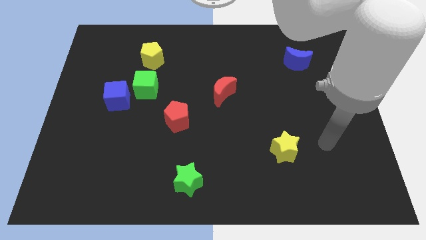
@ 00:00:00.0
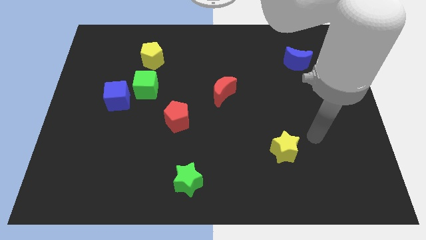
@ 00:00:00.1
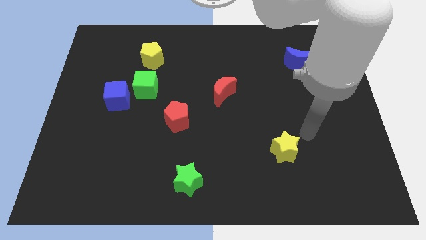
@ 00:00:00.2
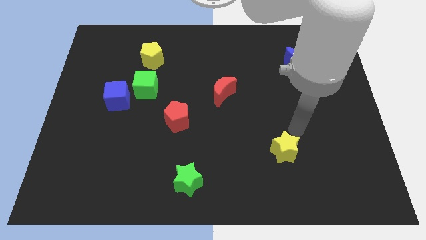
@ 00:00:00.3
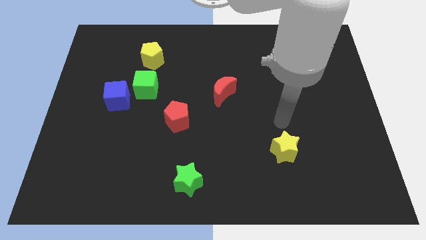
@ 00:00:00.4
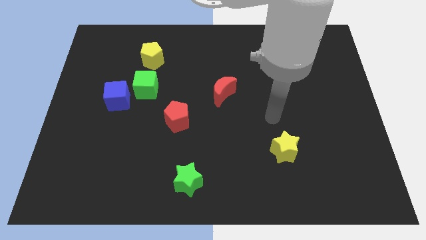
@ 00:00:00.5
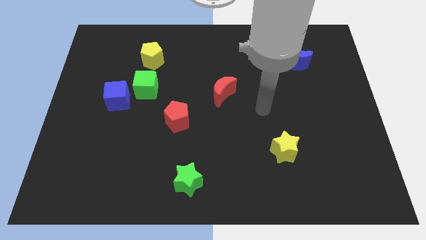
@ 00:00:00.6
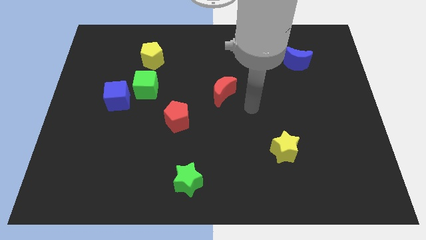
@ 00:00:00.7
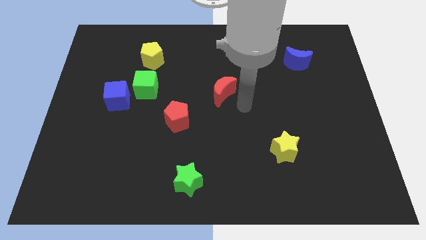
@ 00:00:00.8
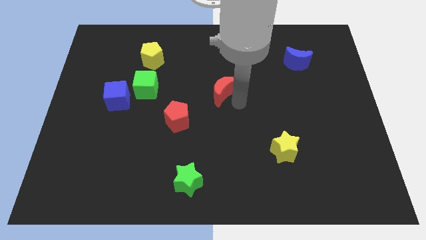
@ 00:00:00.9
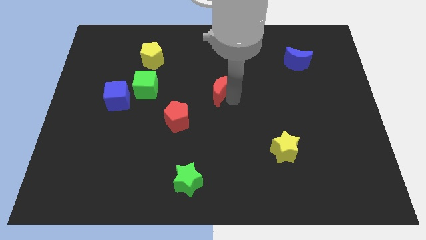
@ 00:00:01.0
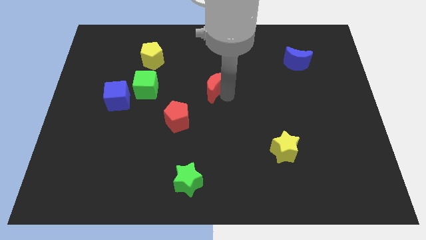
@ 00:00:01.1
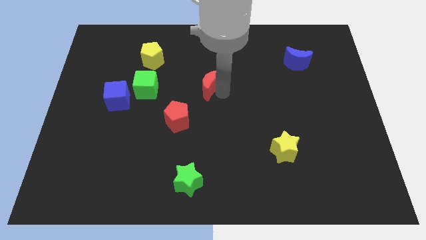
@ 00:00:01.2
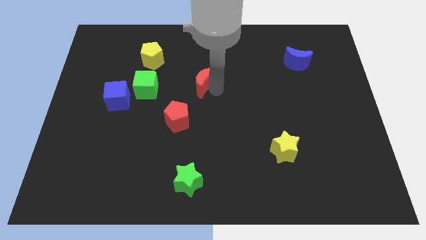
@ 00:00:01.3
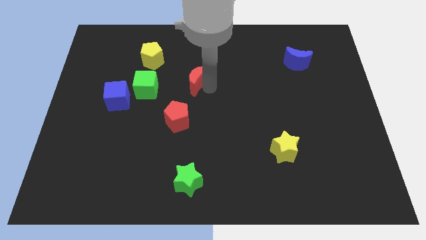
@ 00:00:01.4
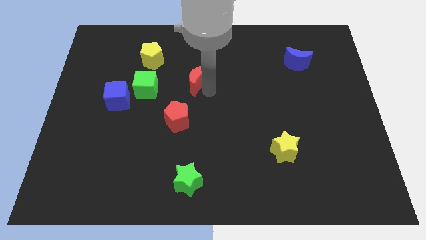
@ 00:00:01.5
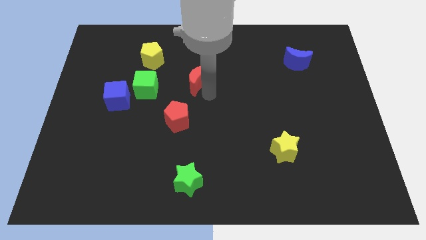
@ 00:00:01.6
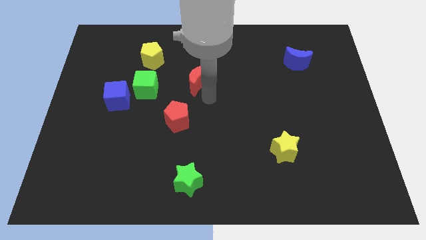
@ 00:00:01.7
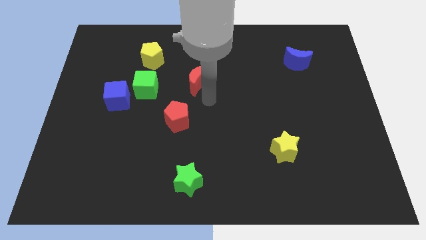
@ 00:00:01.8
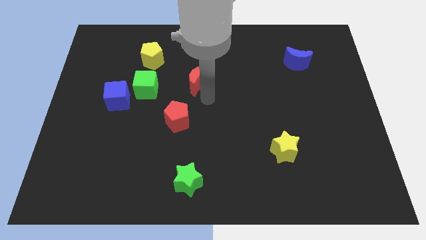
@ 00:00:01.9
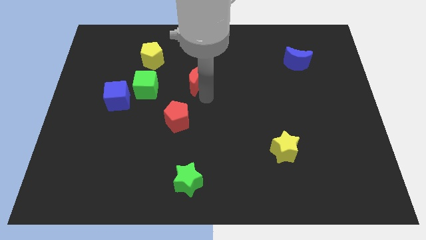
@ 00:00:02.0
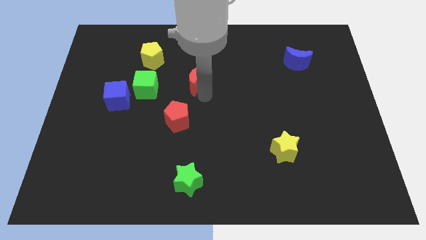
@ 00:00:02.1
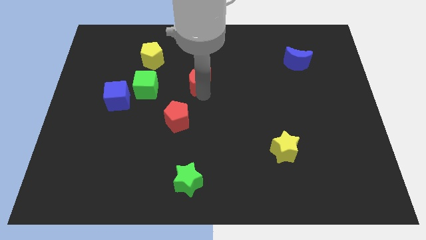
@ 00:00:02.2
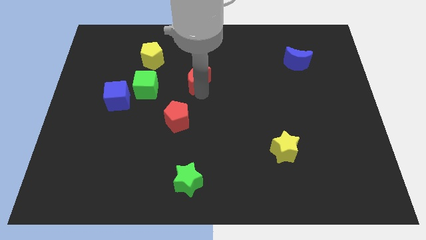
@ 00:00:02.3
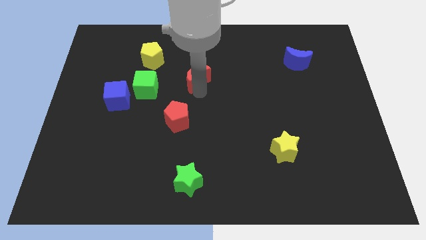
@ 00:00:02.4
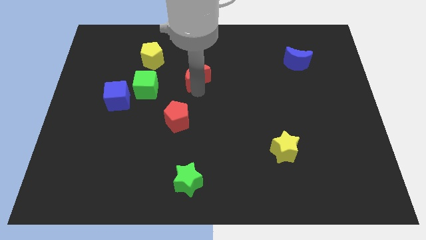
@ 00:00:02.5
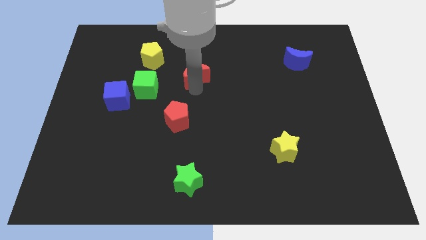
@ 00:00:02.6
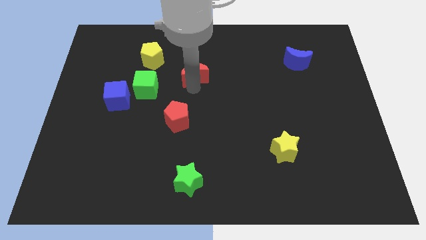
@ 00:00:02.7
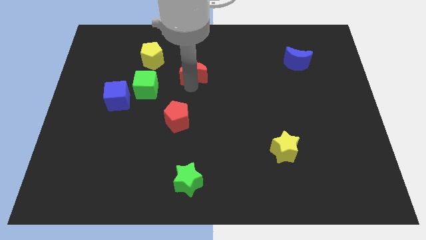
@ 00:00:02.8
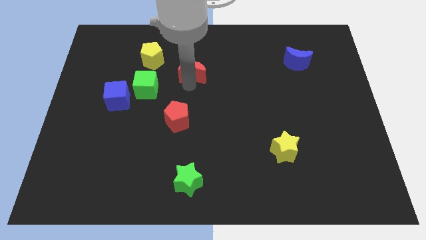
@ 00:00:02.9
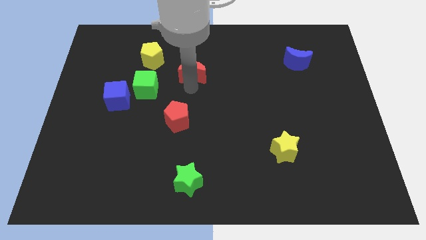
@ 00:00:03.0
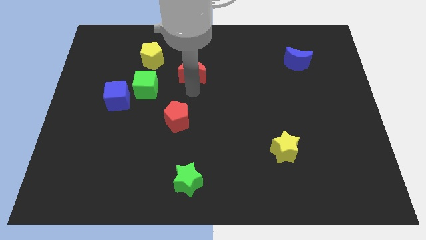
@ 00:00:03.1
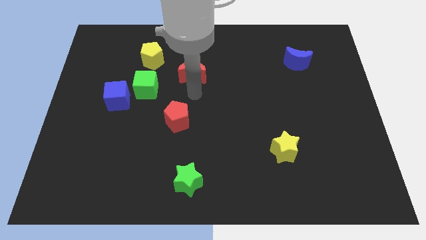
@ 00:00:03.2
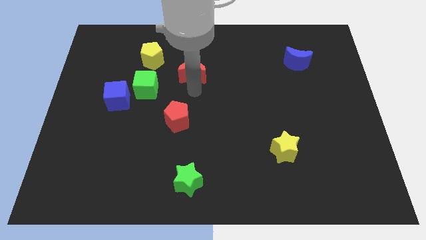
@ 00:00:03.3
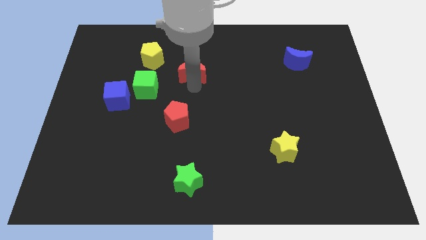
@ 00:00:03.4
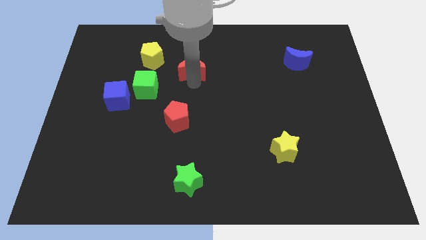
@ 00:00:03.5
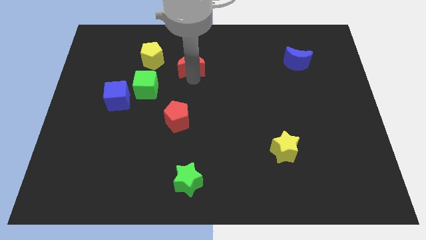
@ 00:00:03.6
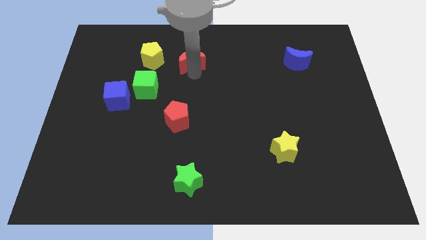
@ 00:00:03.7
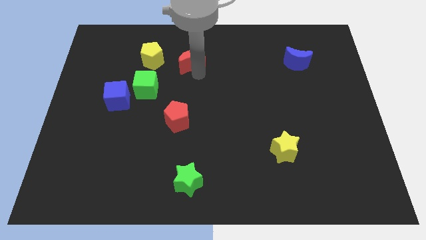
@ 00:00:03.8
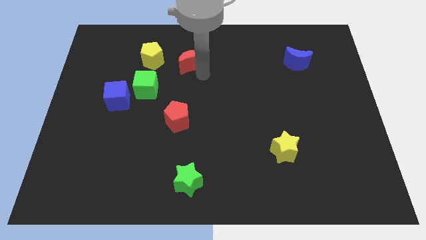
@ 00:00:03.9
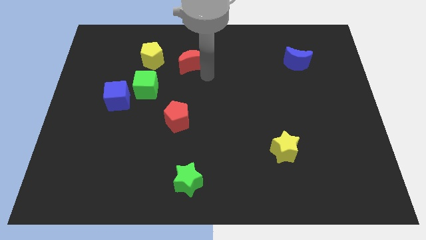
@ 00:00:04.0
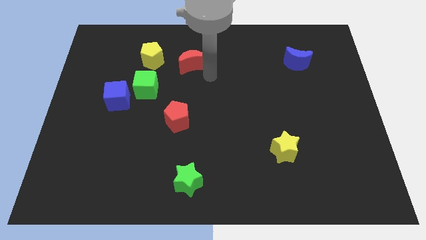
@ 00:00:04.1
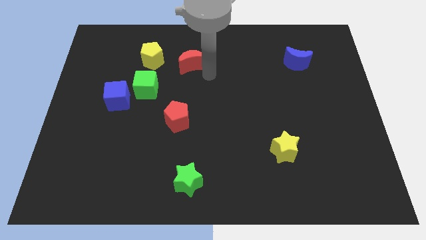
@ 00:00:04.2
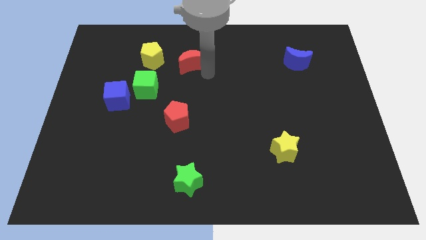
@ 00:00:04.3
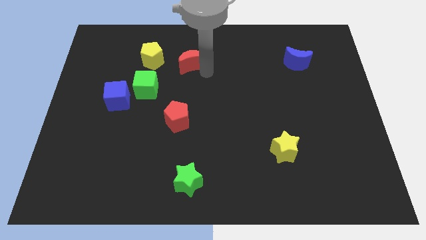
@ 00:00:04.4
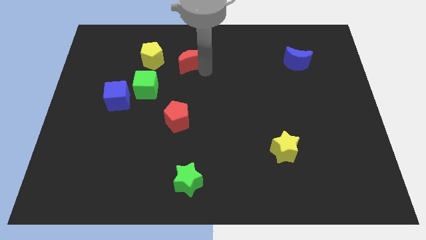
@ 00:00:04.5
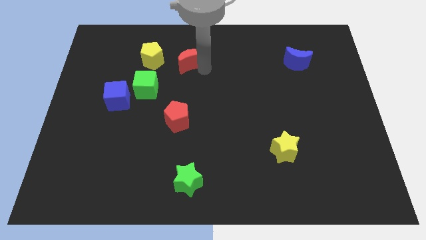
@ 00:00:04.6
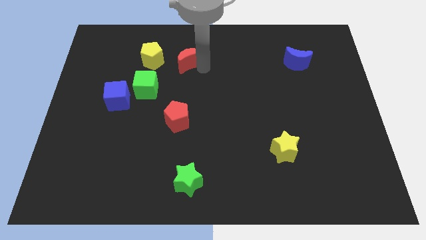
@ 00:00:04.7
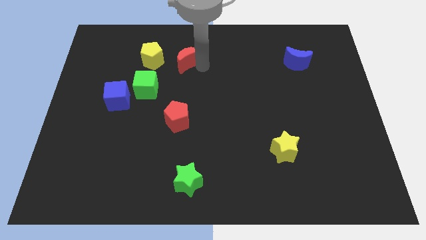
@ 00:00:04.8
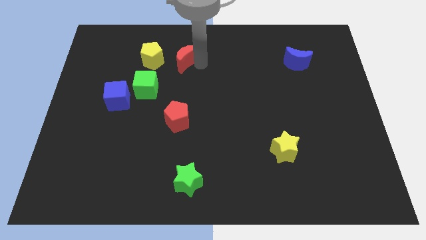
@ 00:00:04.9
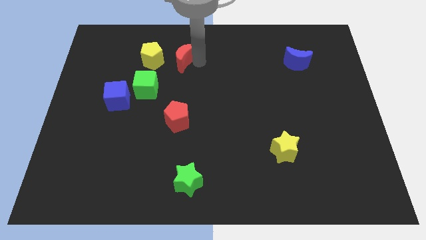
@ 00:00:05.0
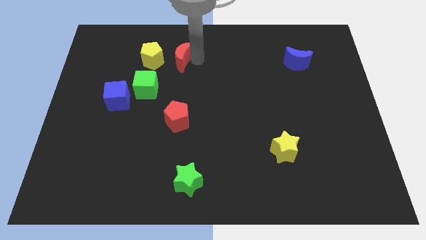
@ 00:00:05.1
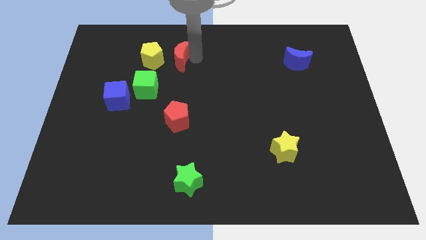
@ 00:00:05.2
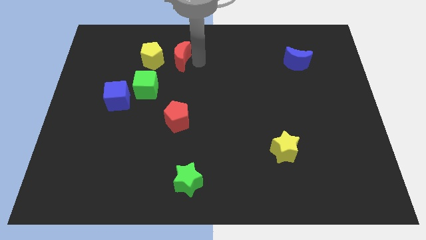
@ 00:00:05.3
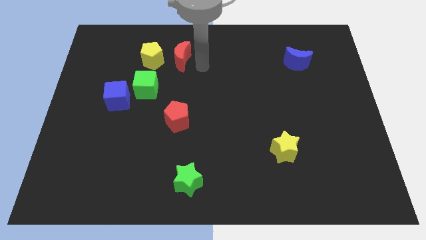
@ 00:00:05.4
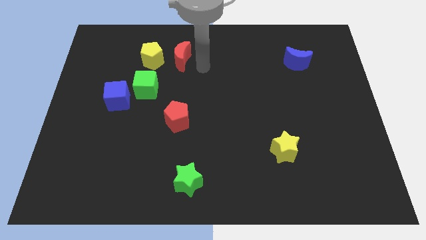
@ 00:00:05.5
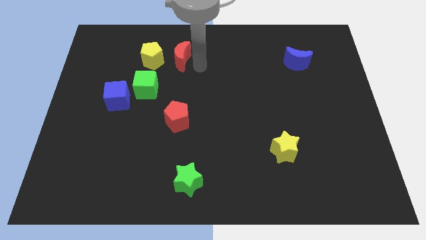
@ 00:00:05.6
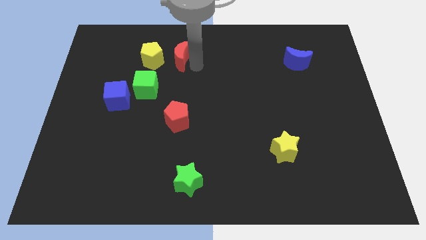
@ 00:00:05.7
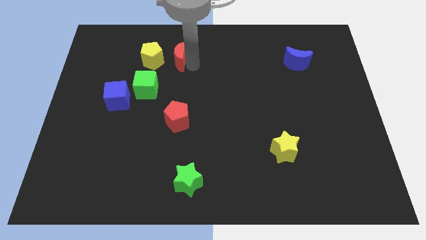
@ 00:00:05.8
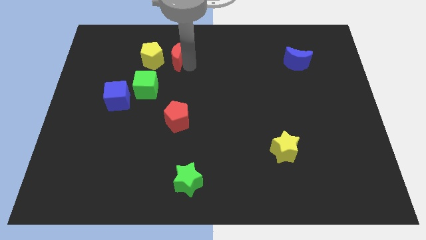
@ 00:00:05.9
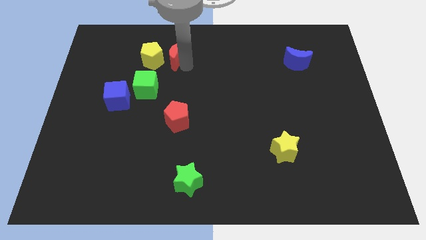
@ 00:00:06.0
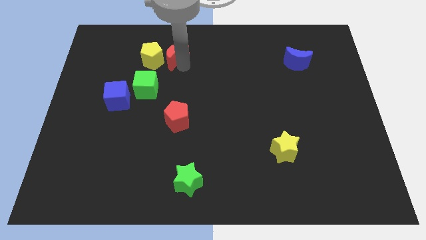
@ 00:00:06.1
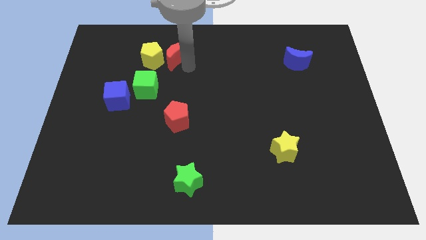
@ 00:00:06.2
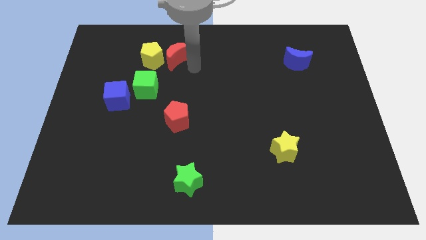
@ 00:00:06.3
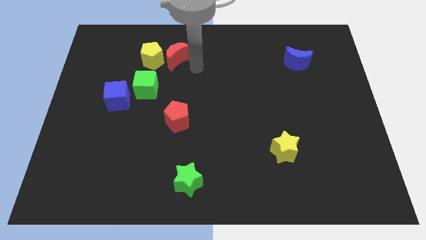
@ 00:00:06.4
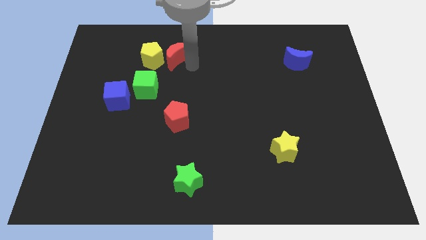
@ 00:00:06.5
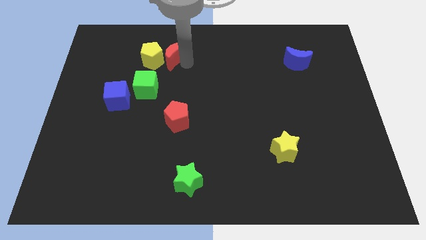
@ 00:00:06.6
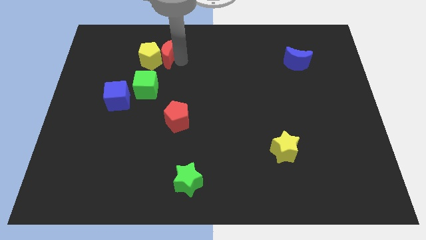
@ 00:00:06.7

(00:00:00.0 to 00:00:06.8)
slide the red moon above the green cube

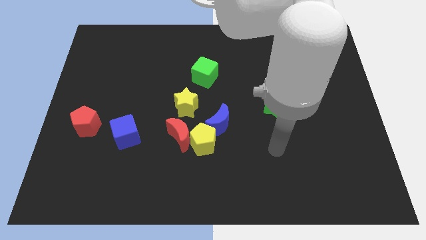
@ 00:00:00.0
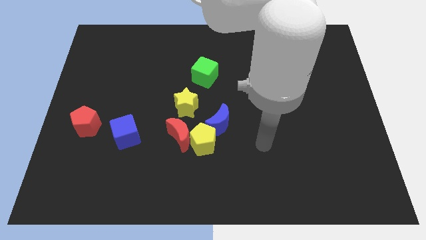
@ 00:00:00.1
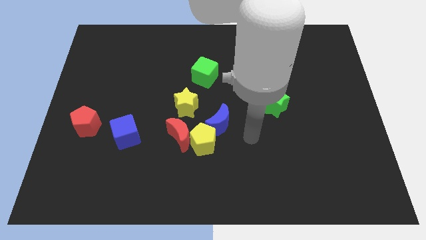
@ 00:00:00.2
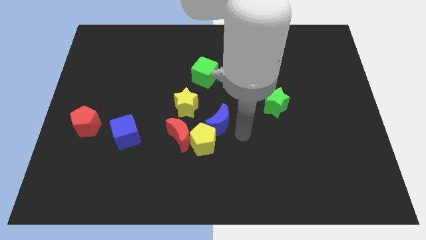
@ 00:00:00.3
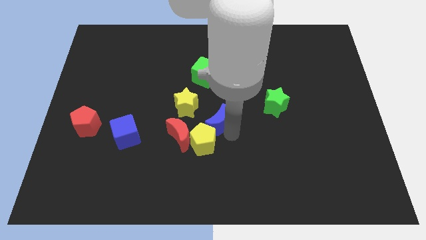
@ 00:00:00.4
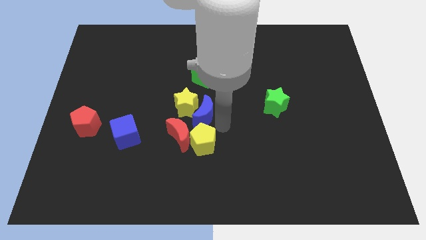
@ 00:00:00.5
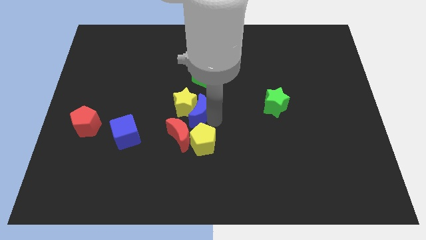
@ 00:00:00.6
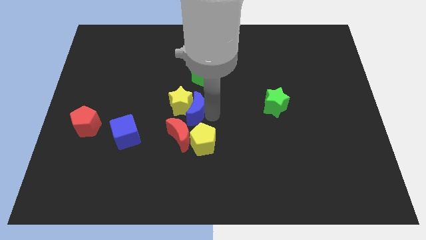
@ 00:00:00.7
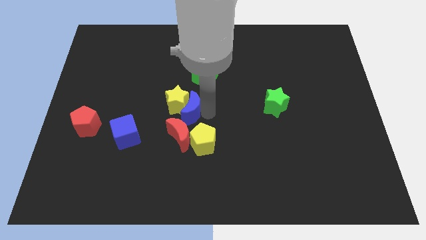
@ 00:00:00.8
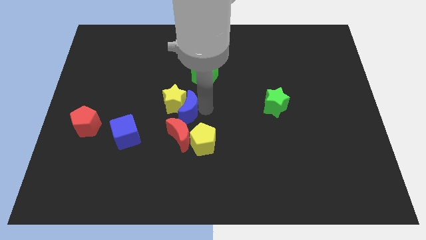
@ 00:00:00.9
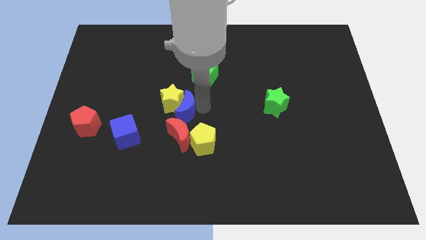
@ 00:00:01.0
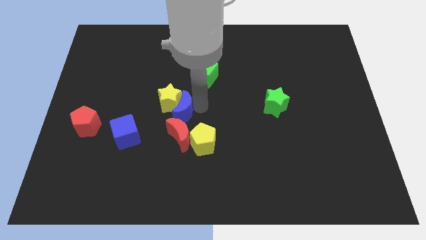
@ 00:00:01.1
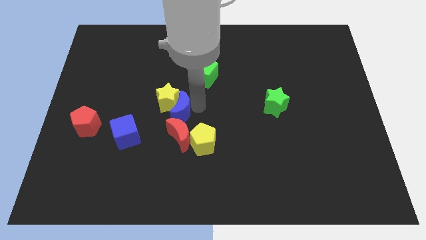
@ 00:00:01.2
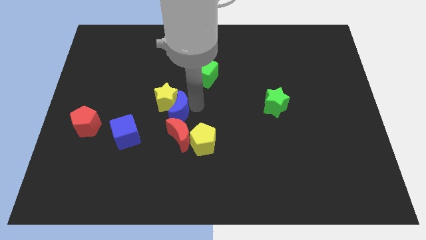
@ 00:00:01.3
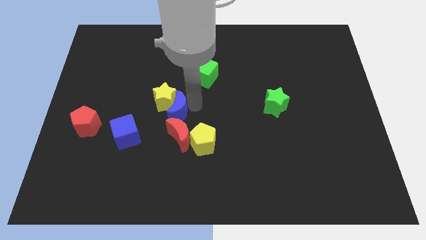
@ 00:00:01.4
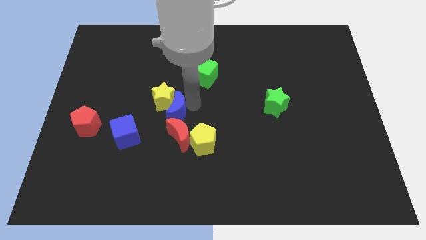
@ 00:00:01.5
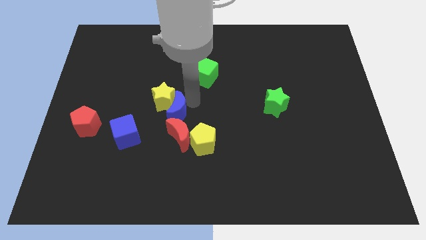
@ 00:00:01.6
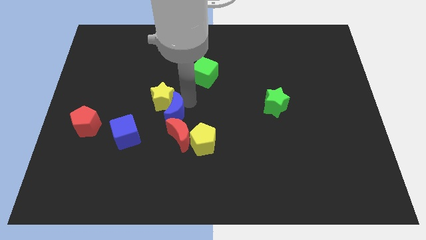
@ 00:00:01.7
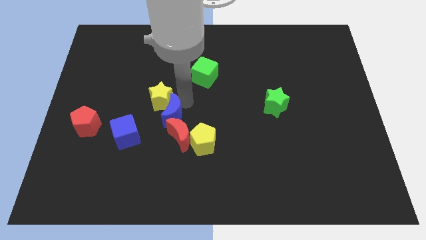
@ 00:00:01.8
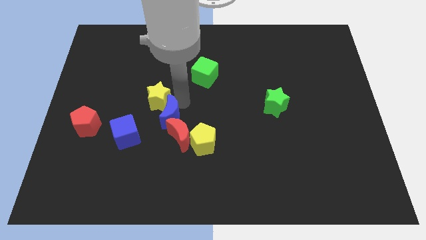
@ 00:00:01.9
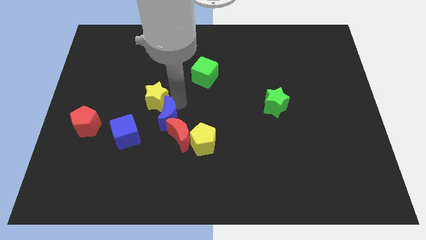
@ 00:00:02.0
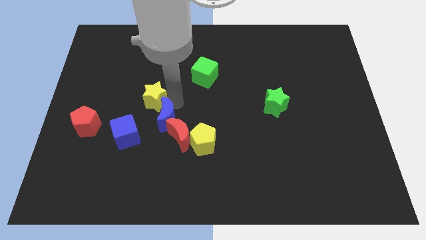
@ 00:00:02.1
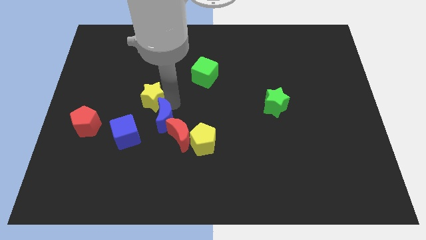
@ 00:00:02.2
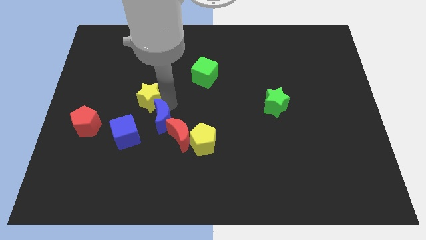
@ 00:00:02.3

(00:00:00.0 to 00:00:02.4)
put the yellow star above the blue cube
